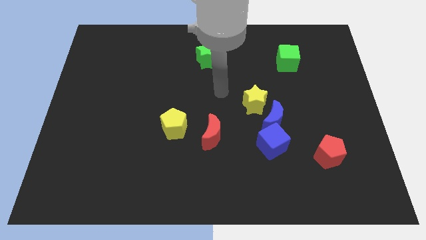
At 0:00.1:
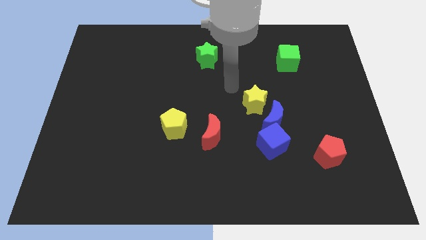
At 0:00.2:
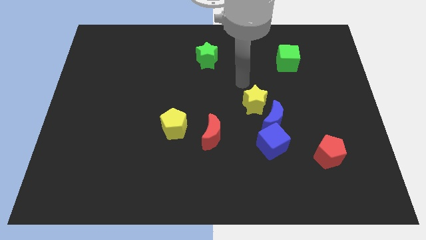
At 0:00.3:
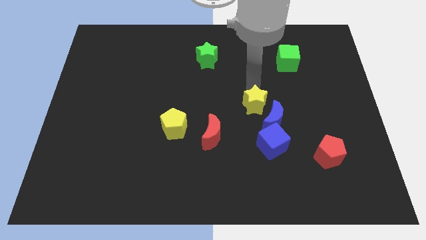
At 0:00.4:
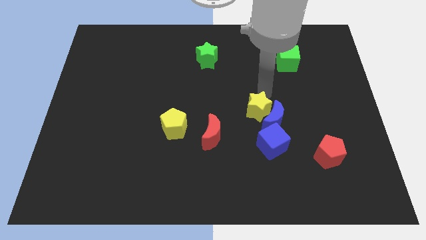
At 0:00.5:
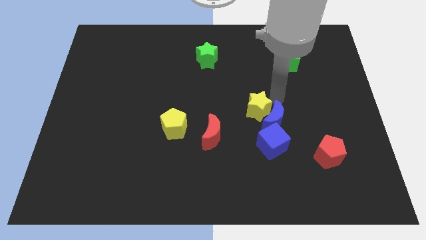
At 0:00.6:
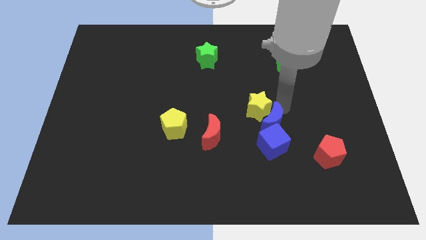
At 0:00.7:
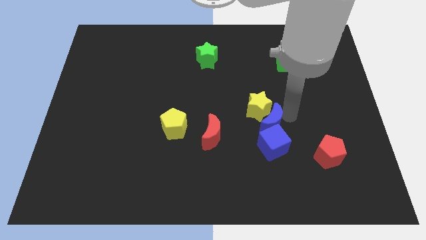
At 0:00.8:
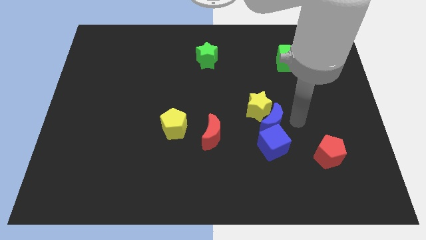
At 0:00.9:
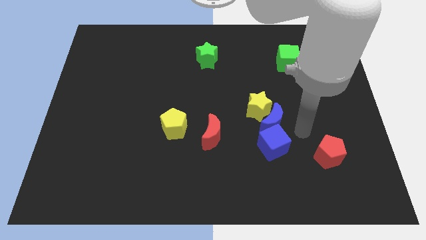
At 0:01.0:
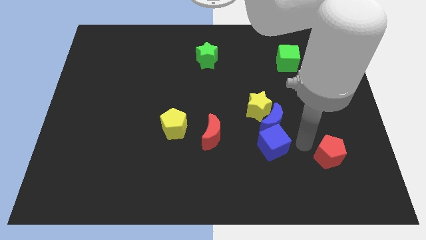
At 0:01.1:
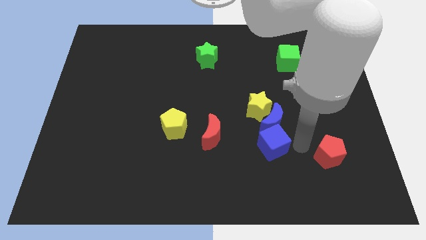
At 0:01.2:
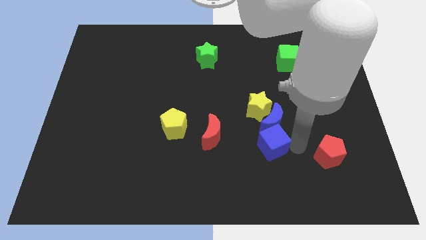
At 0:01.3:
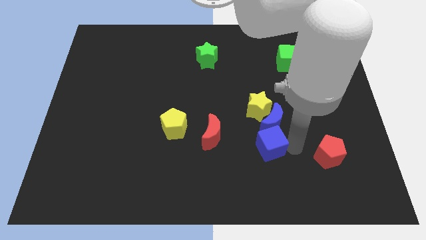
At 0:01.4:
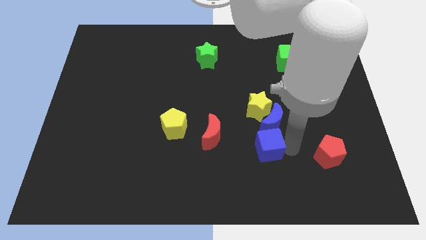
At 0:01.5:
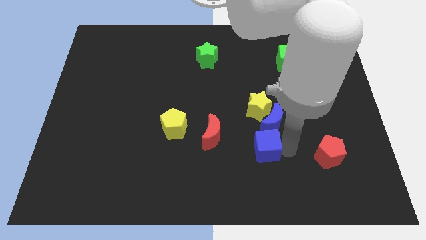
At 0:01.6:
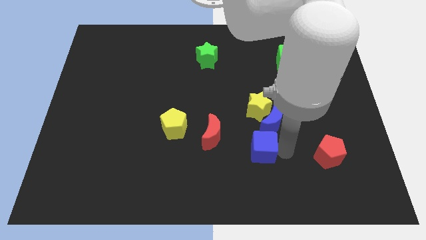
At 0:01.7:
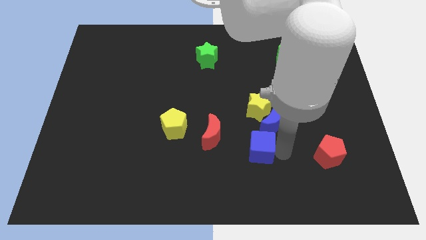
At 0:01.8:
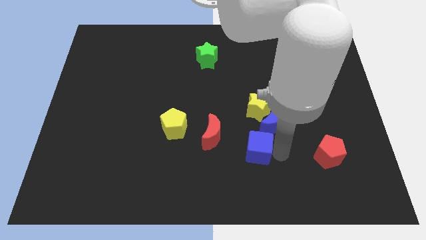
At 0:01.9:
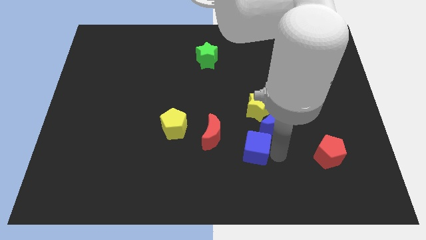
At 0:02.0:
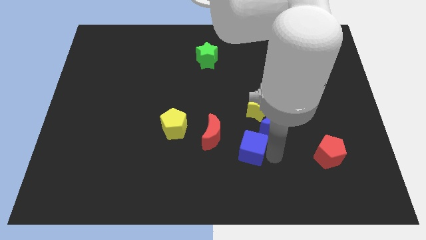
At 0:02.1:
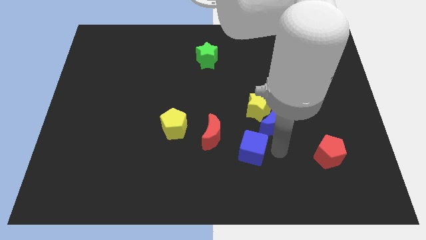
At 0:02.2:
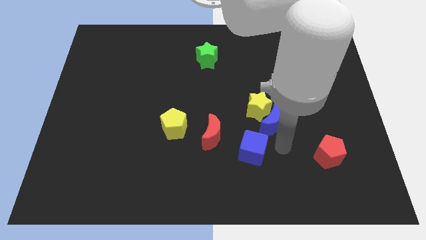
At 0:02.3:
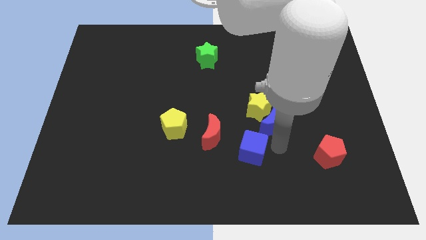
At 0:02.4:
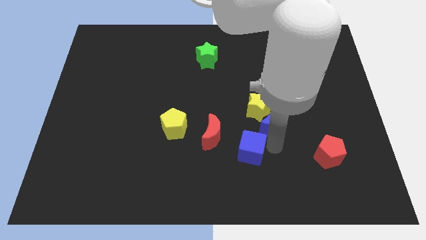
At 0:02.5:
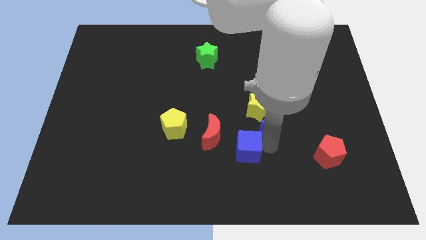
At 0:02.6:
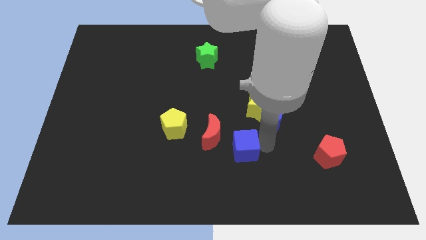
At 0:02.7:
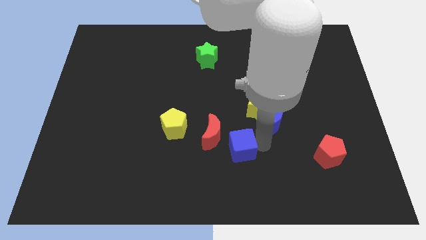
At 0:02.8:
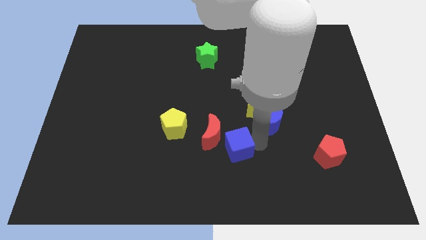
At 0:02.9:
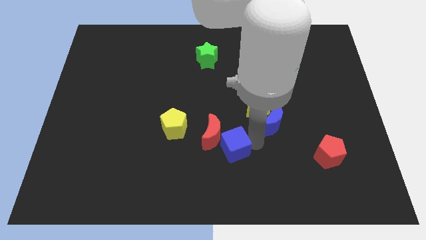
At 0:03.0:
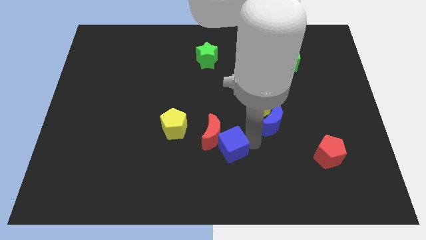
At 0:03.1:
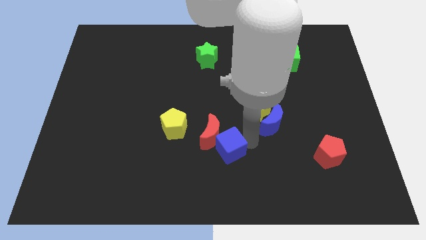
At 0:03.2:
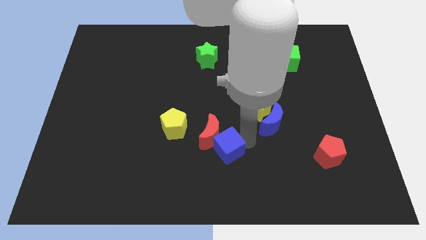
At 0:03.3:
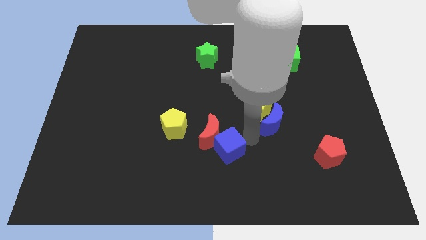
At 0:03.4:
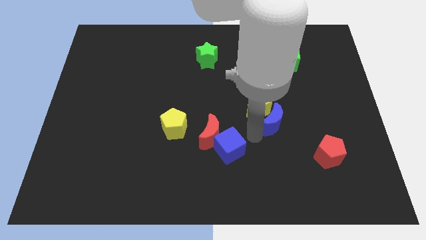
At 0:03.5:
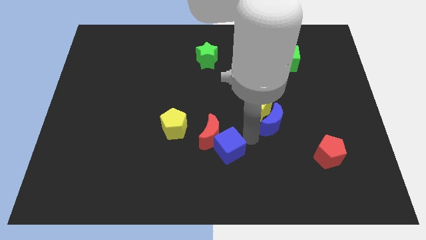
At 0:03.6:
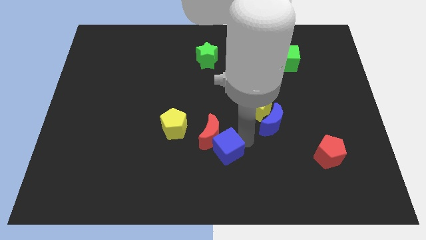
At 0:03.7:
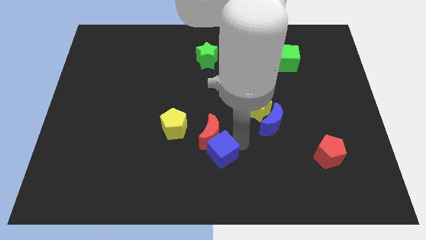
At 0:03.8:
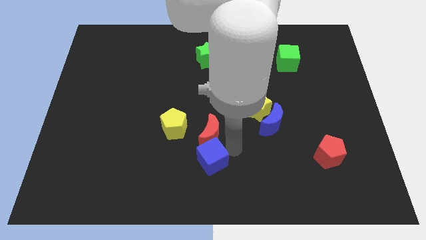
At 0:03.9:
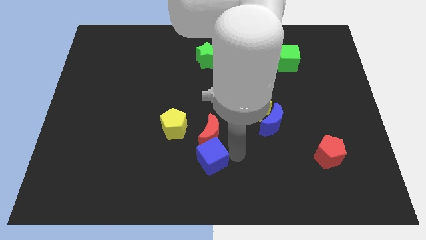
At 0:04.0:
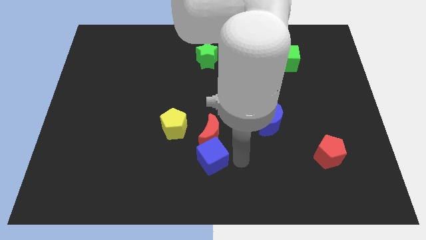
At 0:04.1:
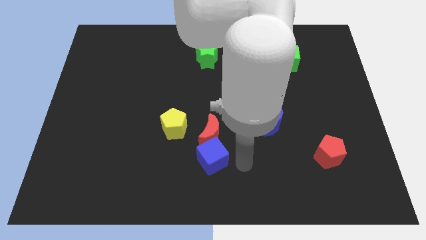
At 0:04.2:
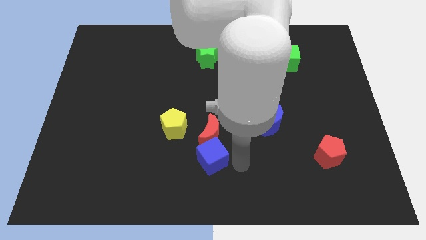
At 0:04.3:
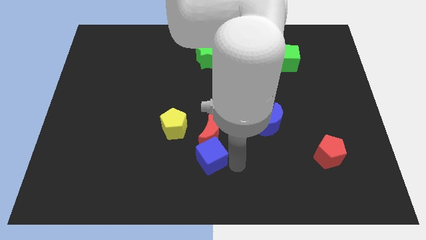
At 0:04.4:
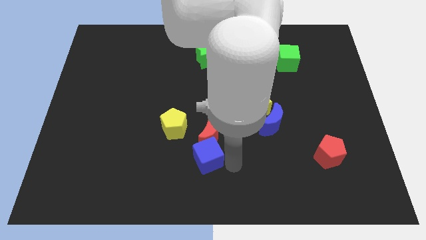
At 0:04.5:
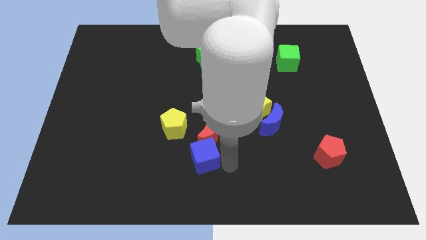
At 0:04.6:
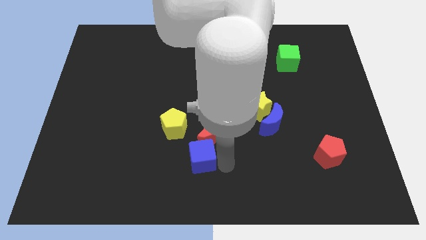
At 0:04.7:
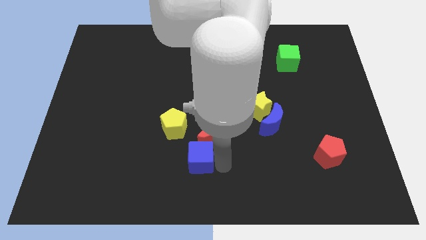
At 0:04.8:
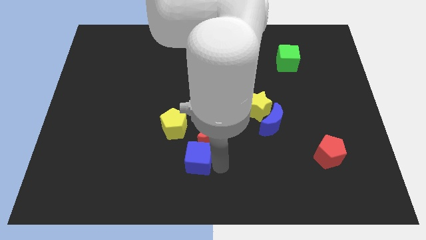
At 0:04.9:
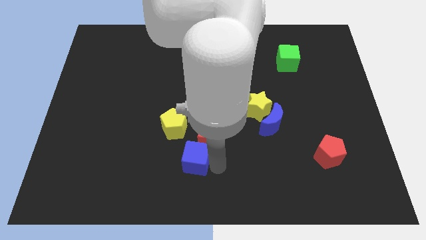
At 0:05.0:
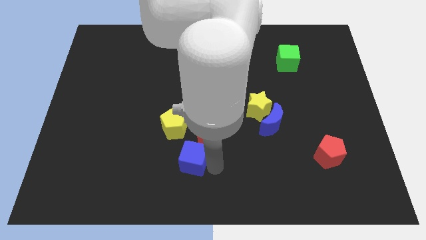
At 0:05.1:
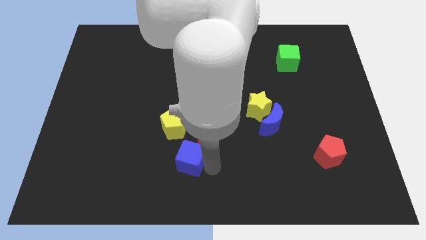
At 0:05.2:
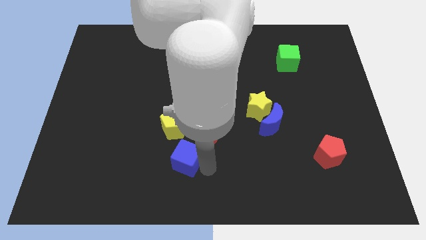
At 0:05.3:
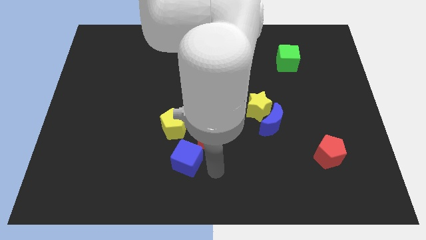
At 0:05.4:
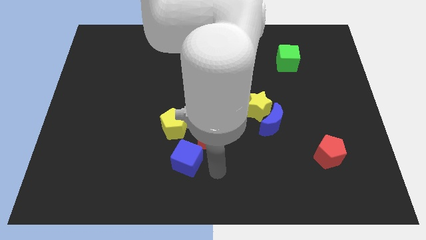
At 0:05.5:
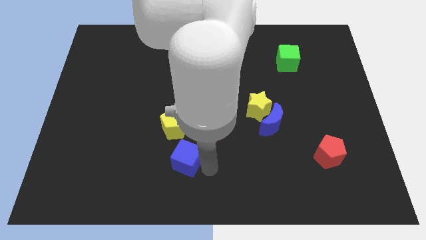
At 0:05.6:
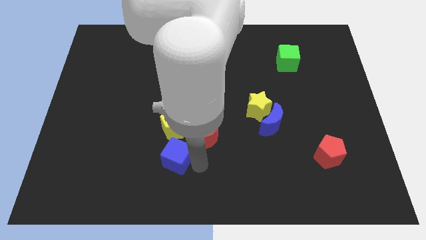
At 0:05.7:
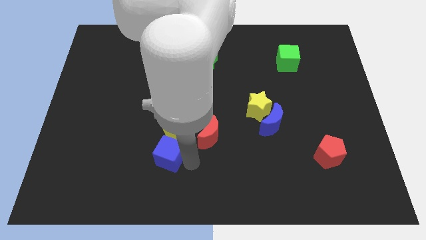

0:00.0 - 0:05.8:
put the blue cube to the bottom left of the yellow pentagon

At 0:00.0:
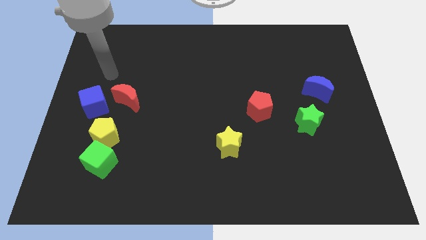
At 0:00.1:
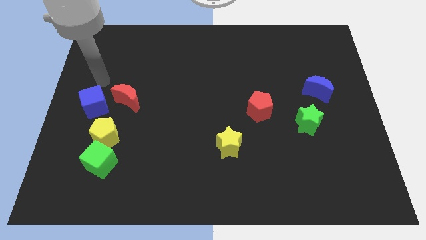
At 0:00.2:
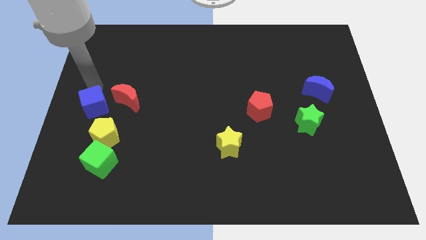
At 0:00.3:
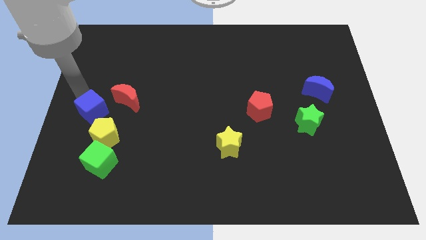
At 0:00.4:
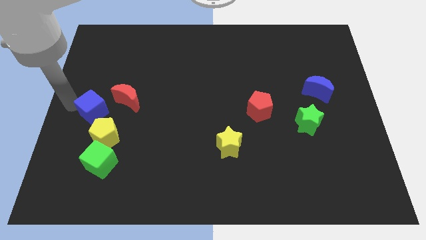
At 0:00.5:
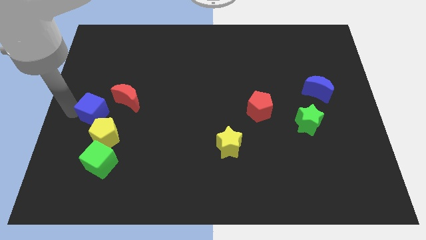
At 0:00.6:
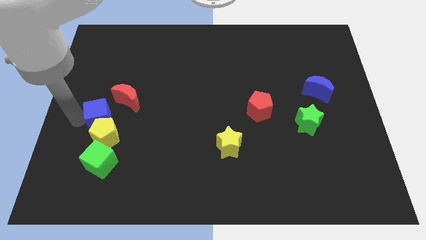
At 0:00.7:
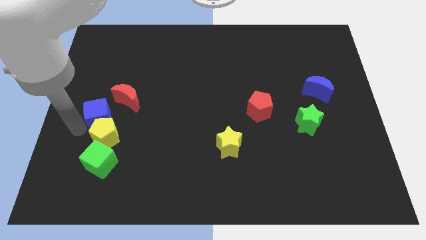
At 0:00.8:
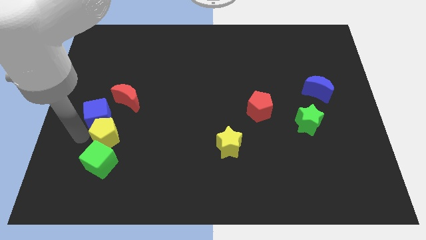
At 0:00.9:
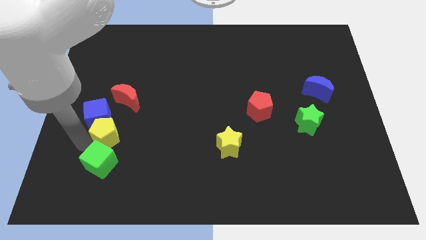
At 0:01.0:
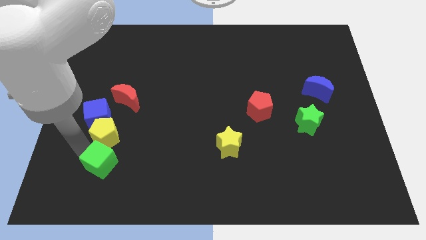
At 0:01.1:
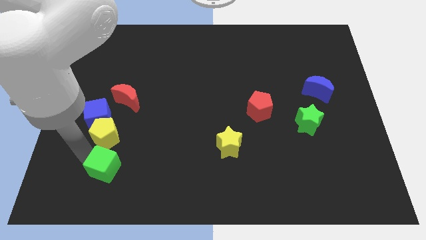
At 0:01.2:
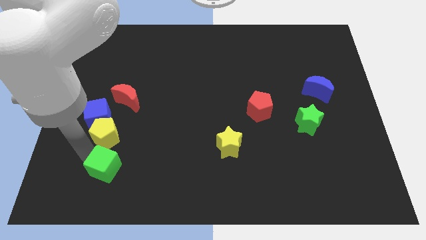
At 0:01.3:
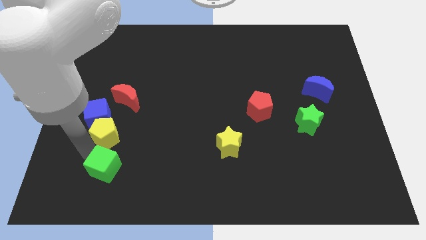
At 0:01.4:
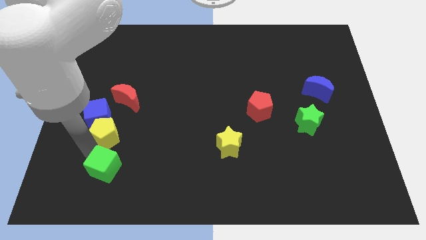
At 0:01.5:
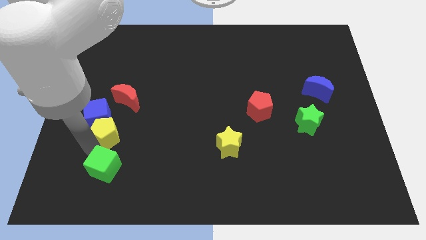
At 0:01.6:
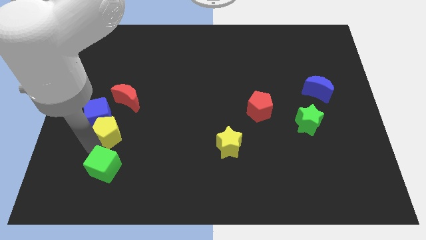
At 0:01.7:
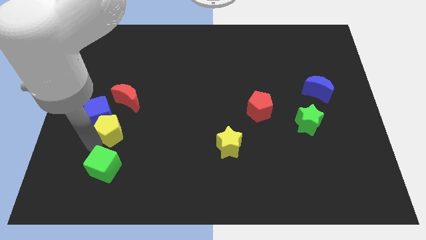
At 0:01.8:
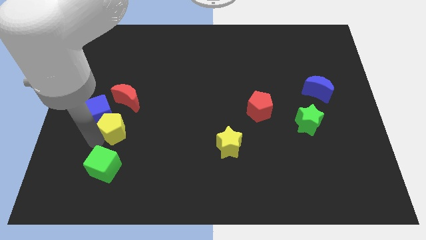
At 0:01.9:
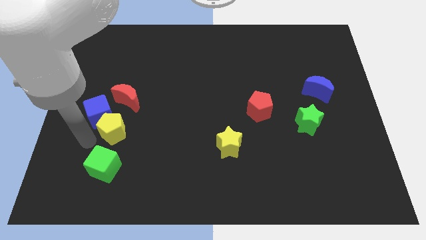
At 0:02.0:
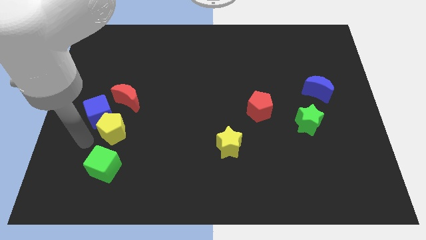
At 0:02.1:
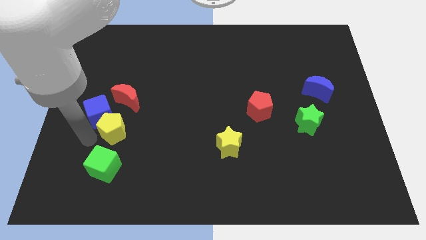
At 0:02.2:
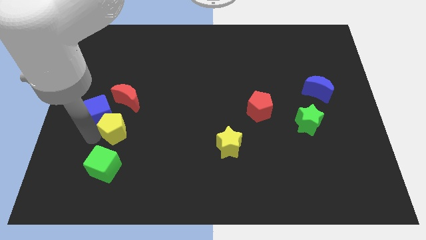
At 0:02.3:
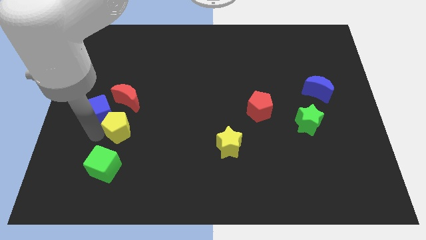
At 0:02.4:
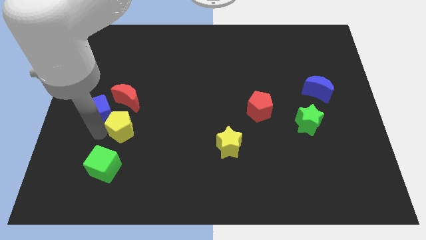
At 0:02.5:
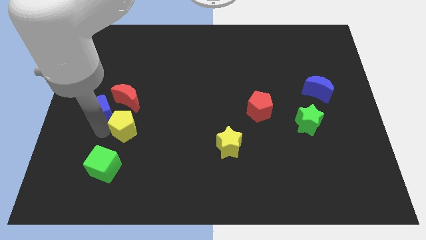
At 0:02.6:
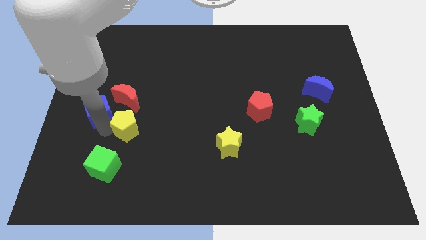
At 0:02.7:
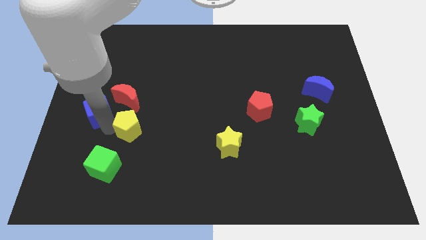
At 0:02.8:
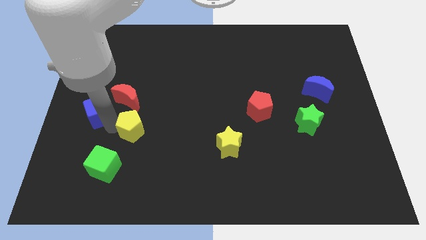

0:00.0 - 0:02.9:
push the yellow pentagon diagonally down and to the right of the red moon
